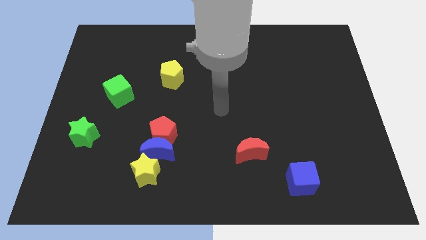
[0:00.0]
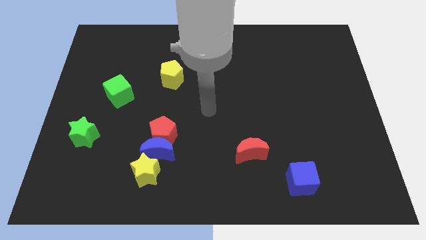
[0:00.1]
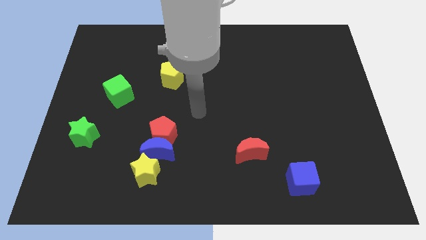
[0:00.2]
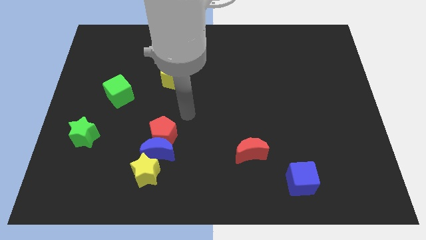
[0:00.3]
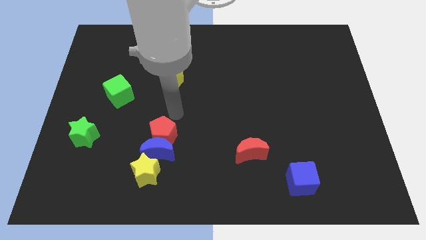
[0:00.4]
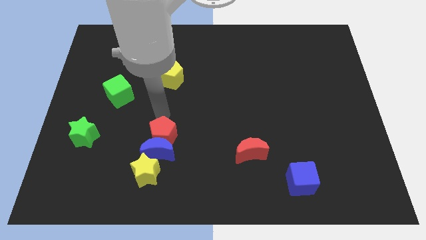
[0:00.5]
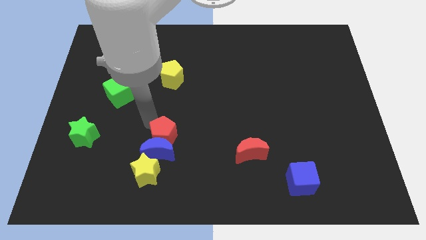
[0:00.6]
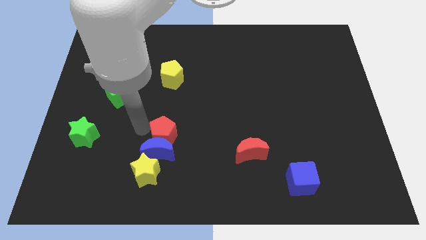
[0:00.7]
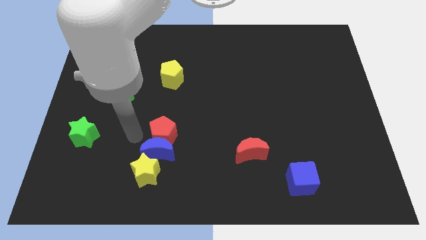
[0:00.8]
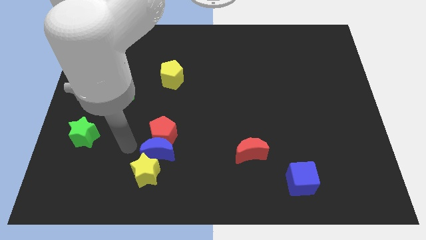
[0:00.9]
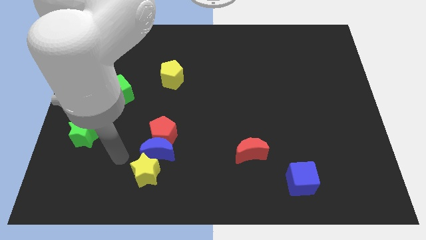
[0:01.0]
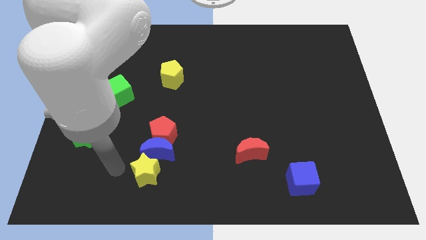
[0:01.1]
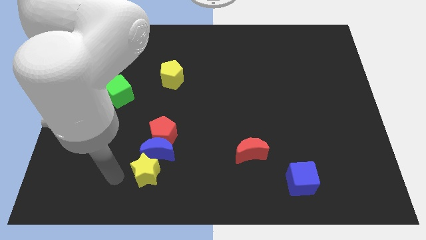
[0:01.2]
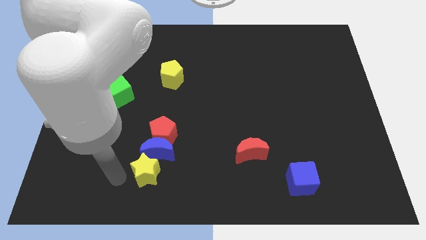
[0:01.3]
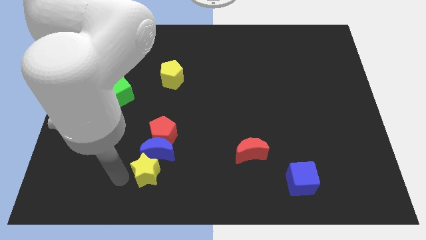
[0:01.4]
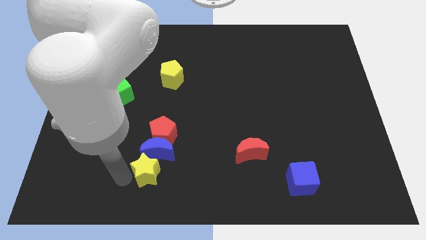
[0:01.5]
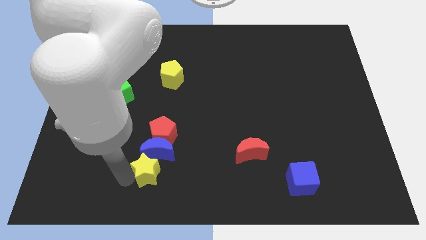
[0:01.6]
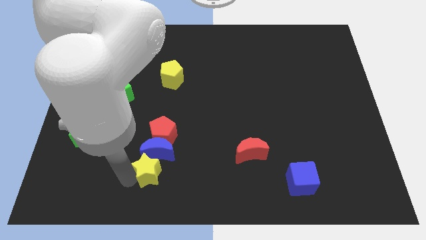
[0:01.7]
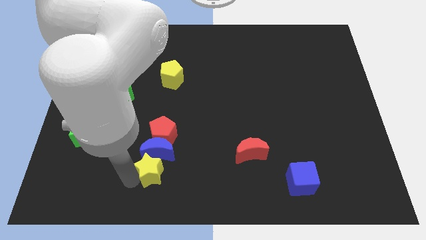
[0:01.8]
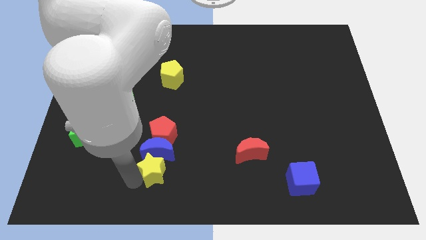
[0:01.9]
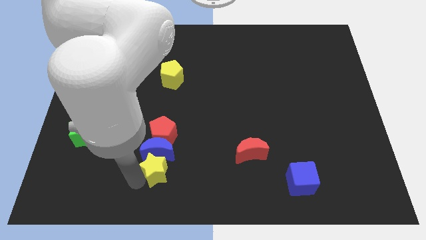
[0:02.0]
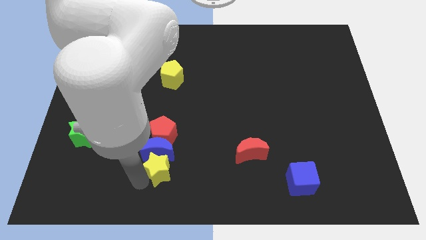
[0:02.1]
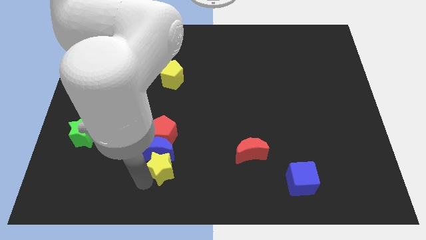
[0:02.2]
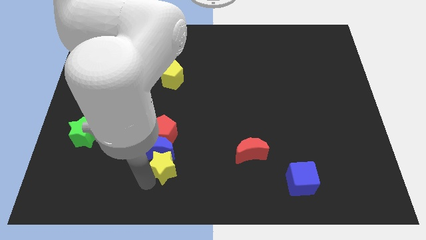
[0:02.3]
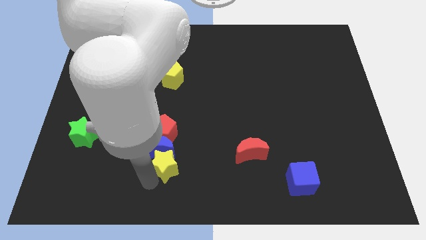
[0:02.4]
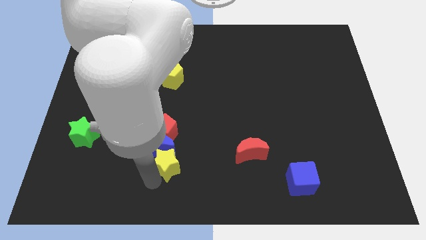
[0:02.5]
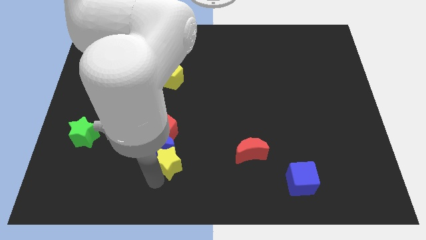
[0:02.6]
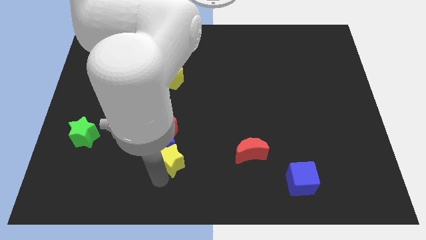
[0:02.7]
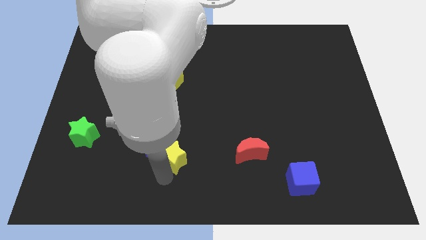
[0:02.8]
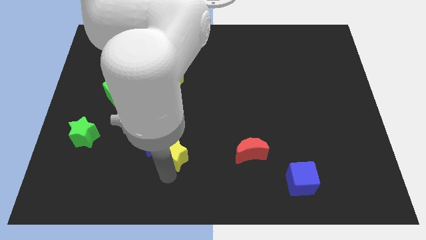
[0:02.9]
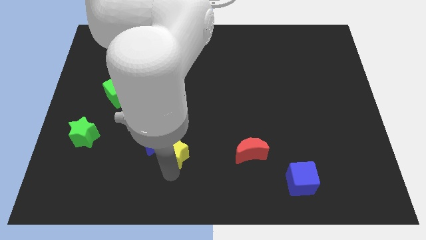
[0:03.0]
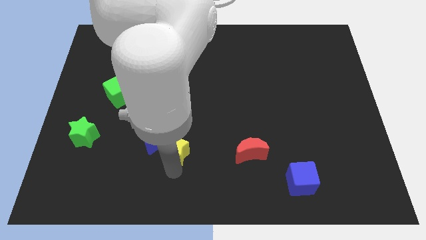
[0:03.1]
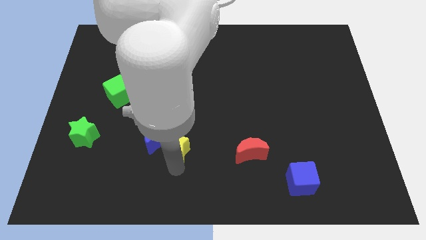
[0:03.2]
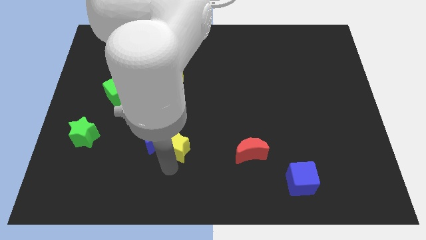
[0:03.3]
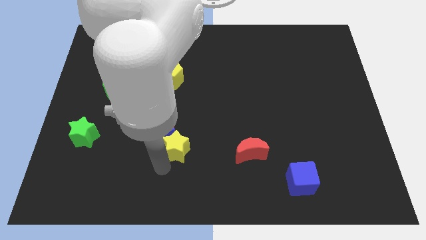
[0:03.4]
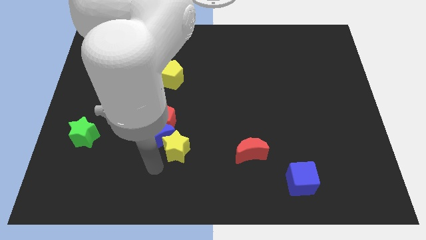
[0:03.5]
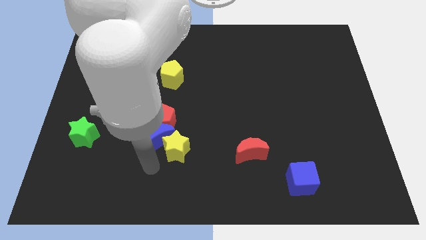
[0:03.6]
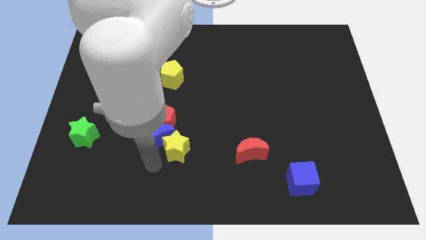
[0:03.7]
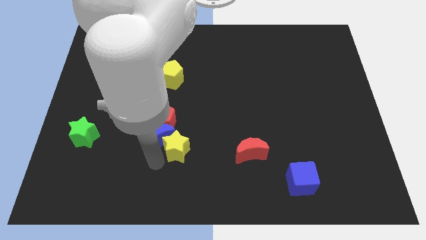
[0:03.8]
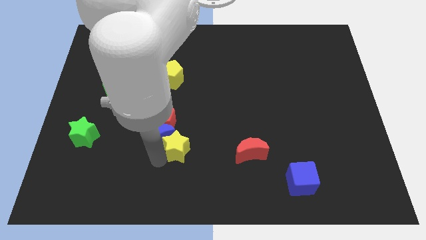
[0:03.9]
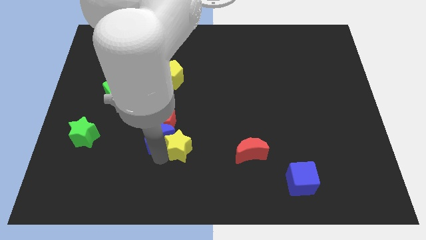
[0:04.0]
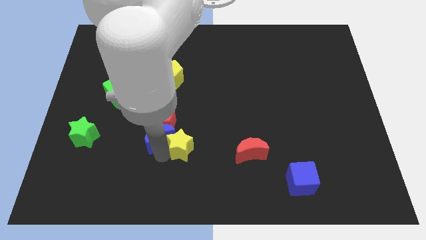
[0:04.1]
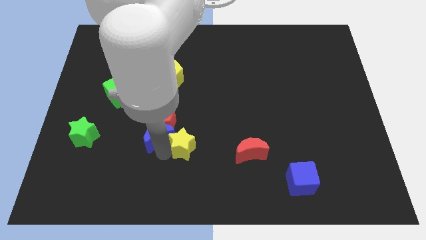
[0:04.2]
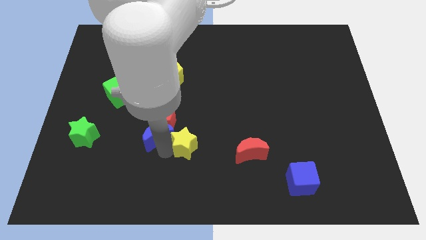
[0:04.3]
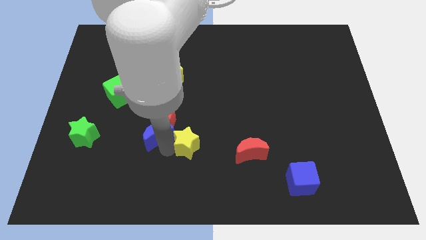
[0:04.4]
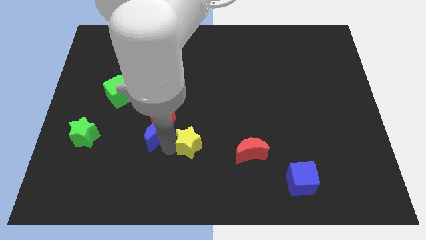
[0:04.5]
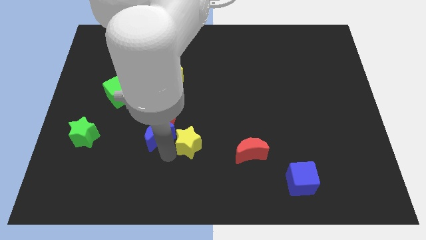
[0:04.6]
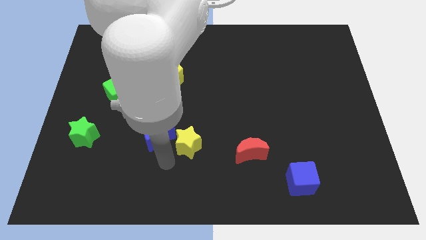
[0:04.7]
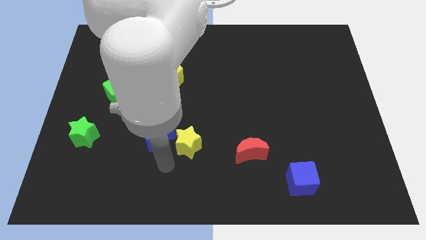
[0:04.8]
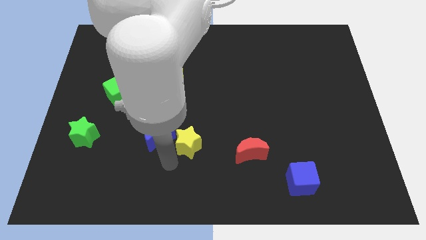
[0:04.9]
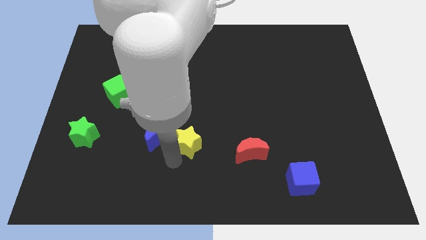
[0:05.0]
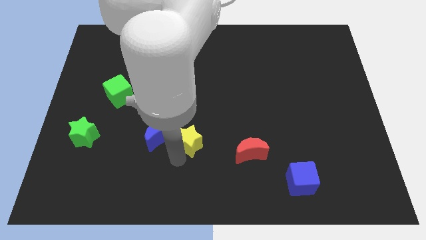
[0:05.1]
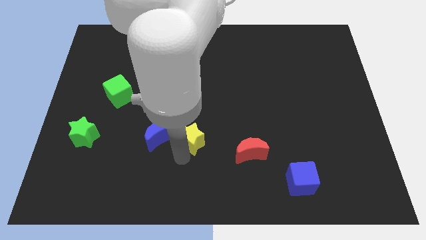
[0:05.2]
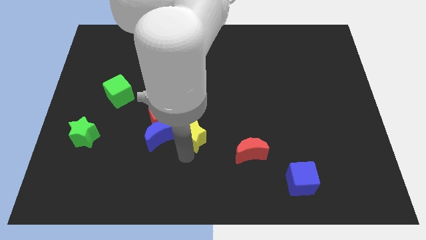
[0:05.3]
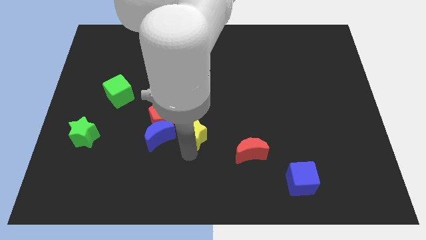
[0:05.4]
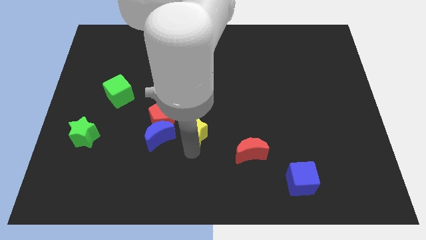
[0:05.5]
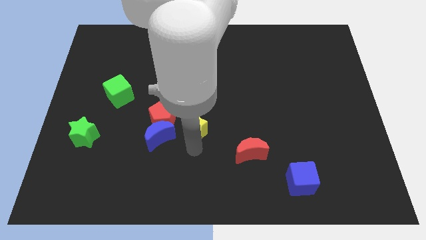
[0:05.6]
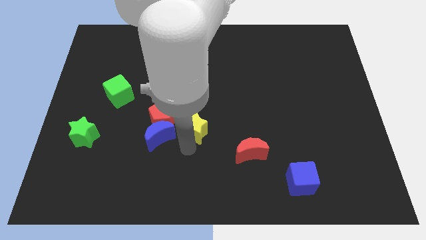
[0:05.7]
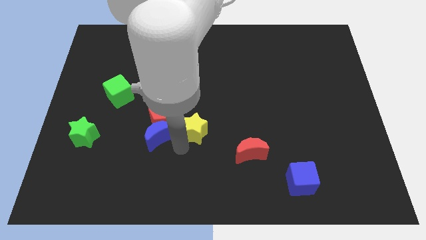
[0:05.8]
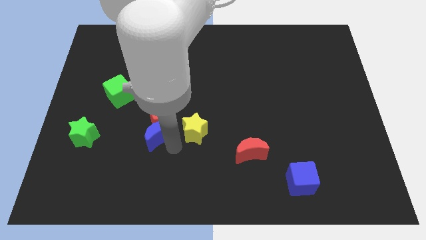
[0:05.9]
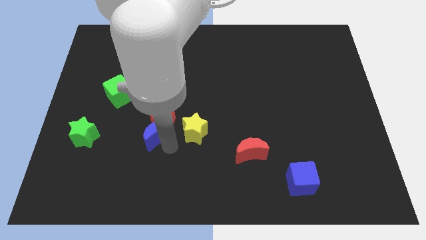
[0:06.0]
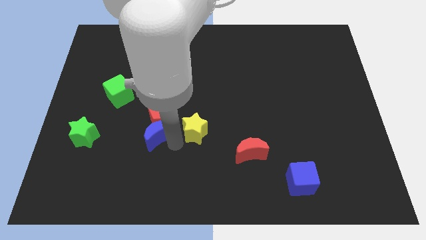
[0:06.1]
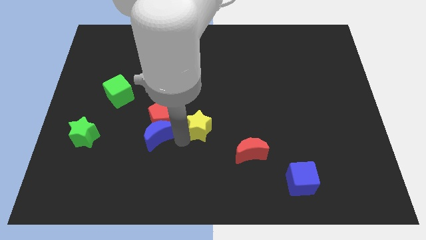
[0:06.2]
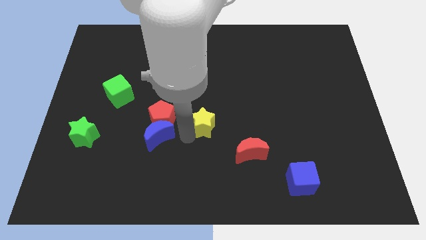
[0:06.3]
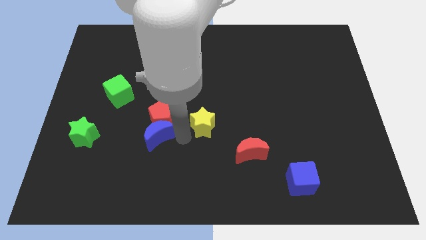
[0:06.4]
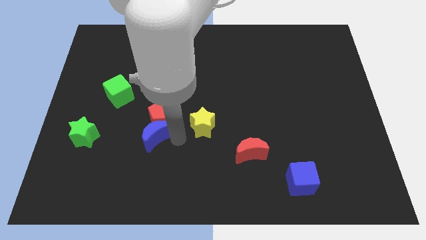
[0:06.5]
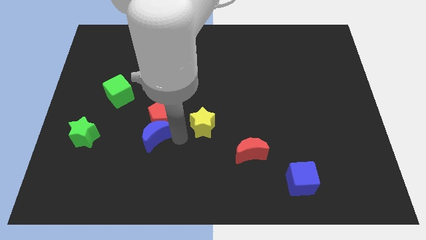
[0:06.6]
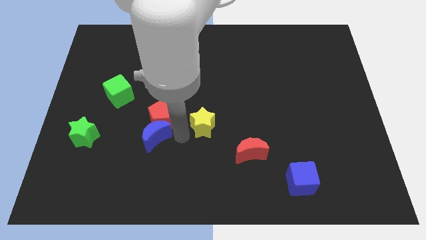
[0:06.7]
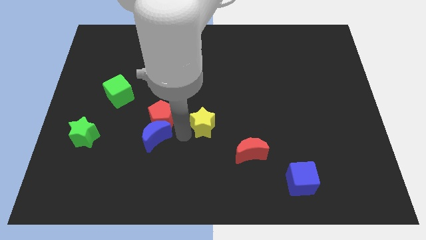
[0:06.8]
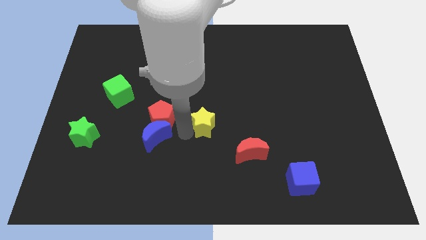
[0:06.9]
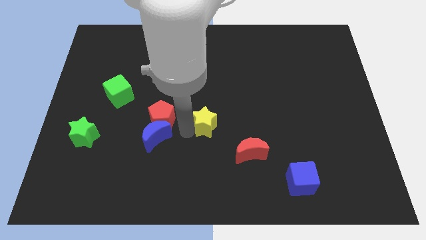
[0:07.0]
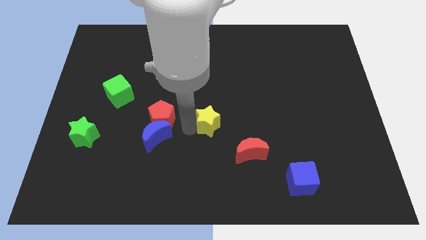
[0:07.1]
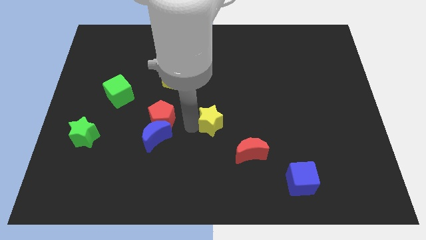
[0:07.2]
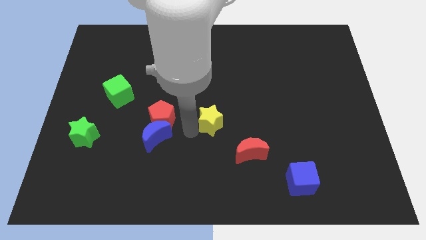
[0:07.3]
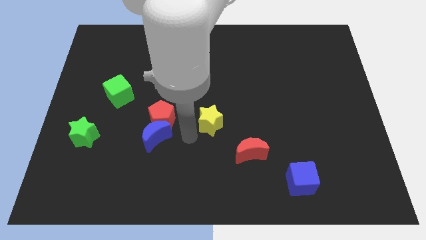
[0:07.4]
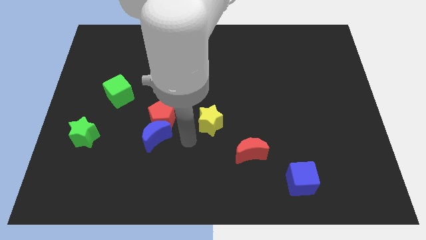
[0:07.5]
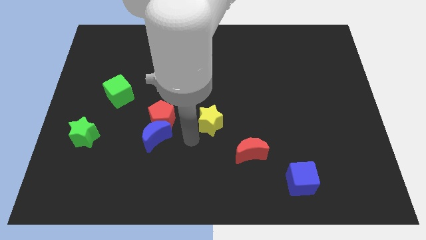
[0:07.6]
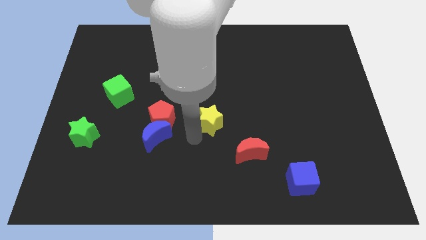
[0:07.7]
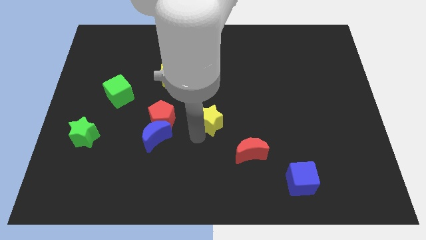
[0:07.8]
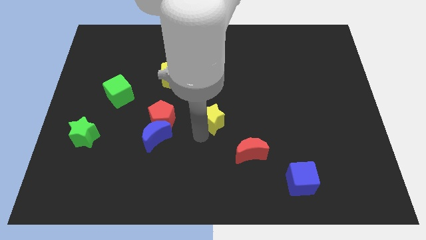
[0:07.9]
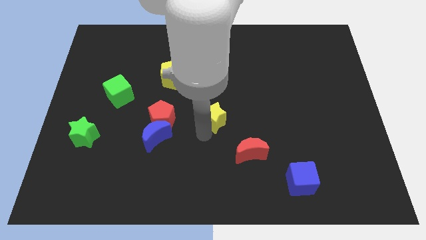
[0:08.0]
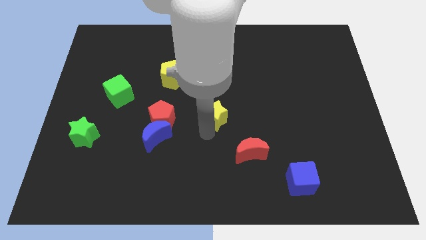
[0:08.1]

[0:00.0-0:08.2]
move the yellow star upwards and then to the right
